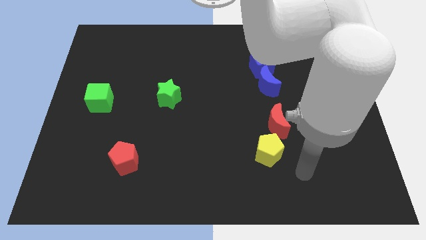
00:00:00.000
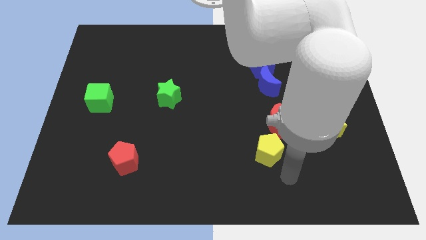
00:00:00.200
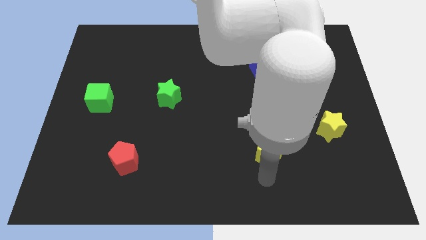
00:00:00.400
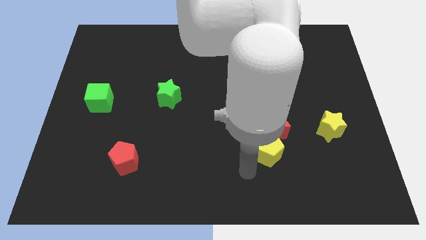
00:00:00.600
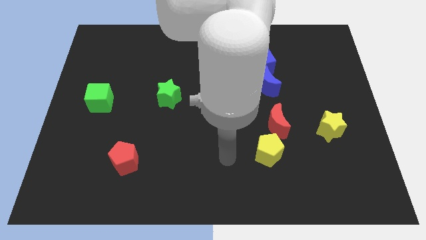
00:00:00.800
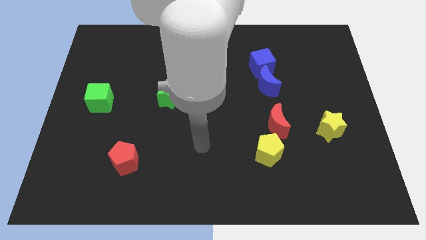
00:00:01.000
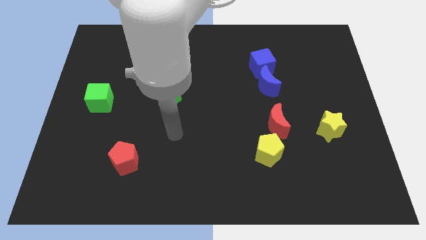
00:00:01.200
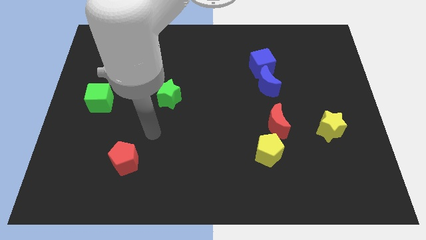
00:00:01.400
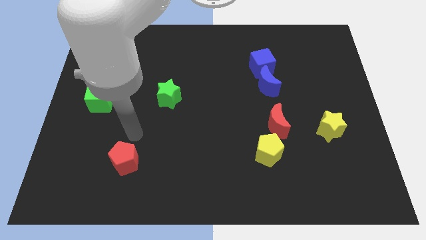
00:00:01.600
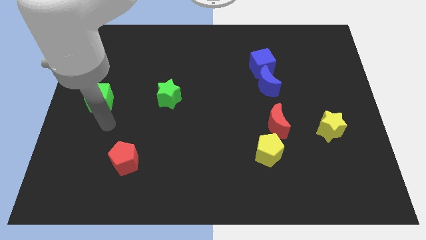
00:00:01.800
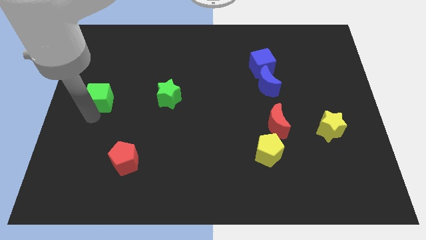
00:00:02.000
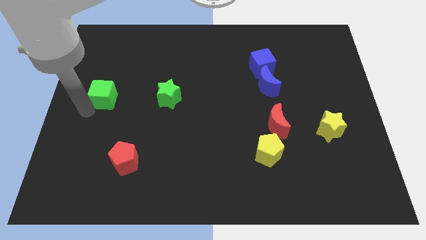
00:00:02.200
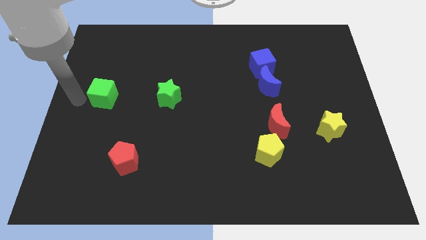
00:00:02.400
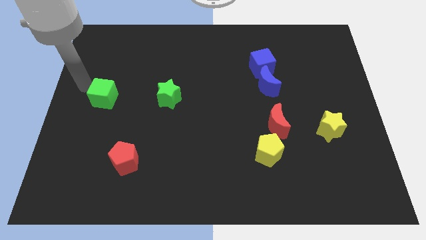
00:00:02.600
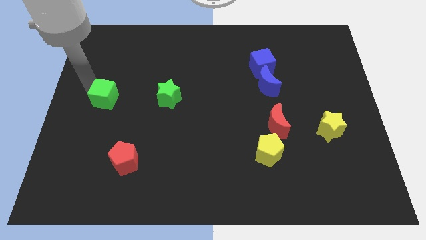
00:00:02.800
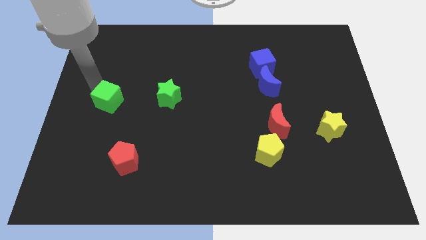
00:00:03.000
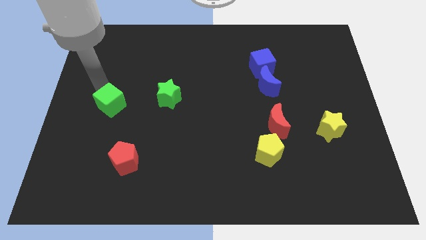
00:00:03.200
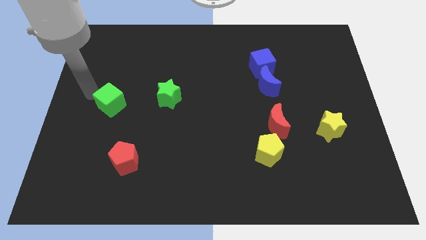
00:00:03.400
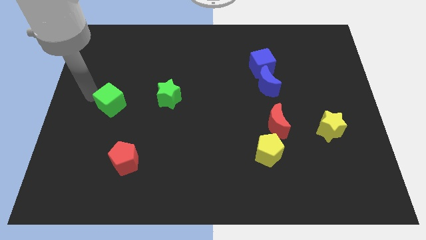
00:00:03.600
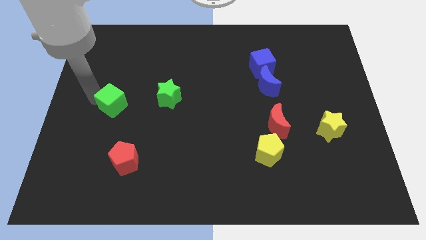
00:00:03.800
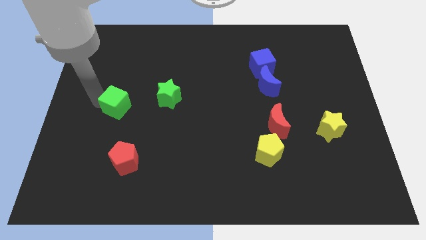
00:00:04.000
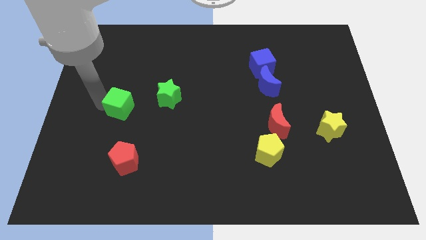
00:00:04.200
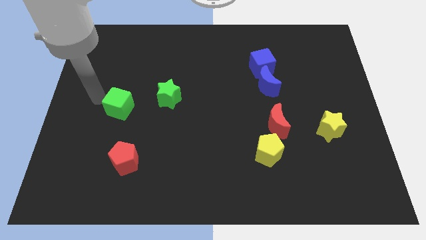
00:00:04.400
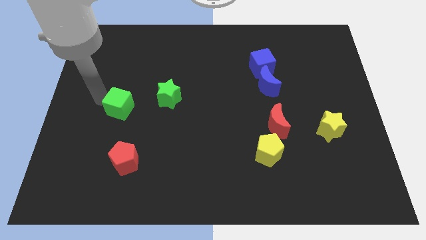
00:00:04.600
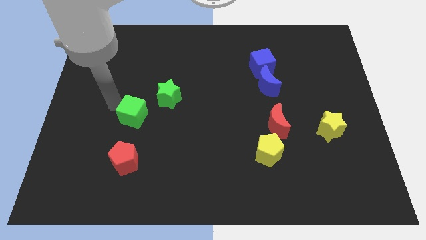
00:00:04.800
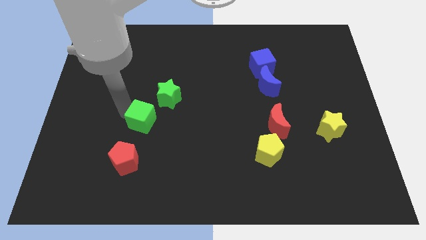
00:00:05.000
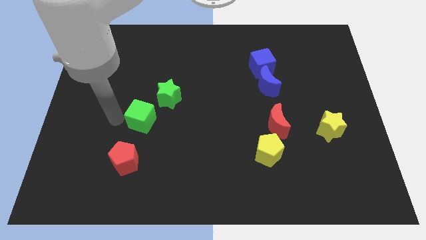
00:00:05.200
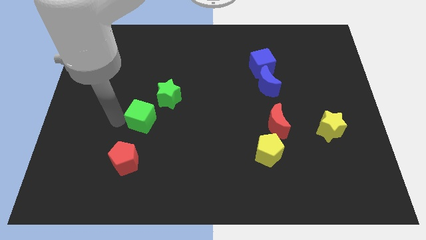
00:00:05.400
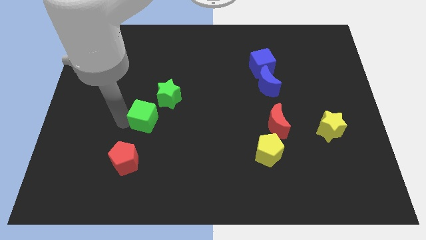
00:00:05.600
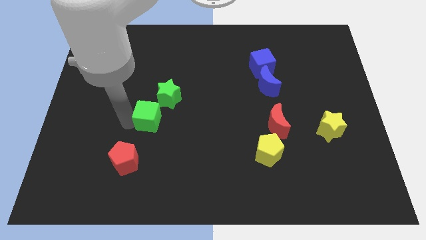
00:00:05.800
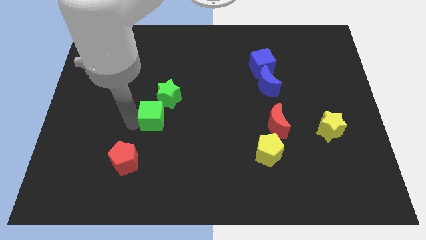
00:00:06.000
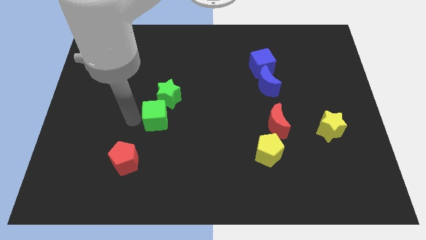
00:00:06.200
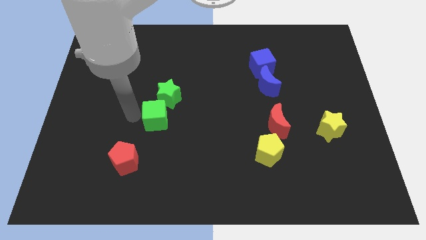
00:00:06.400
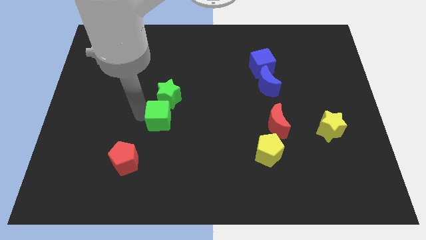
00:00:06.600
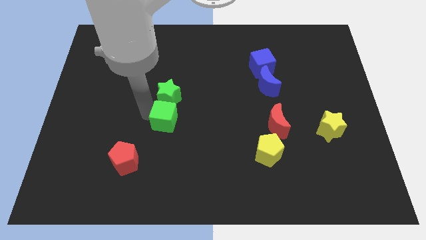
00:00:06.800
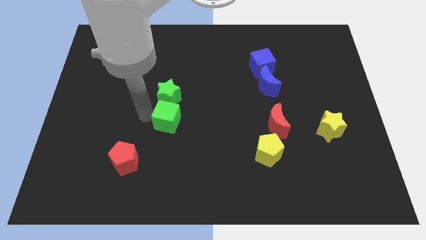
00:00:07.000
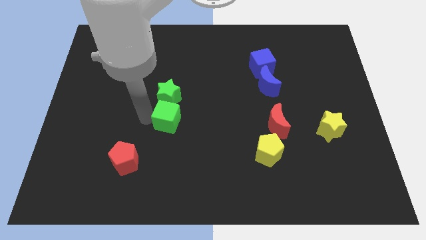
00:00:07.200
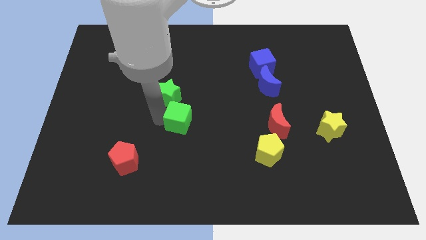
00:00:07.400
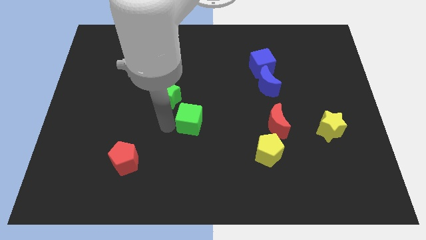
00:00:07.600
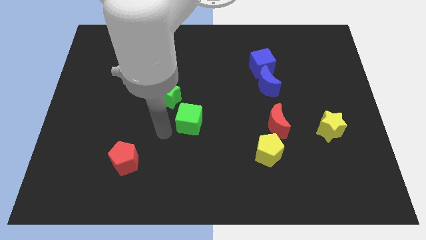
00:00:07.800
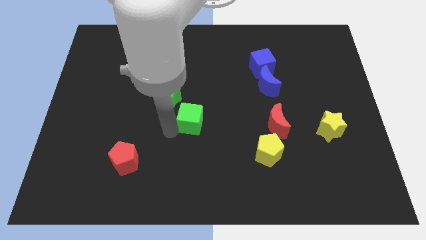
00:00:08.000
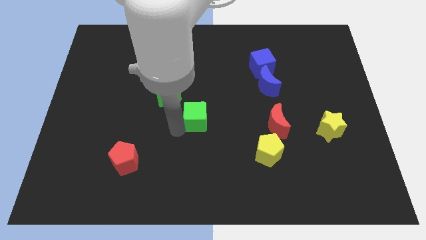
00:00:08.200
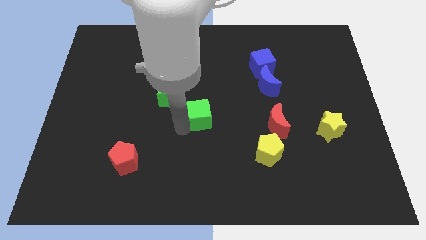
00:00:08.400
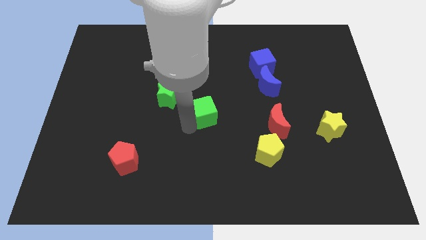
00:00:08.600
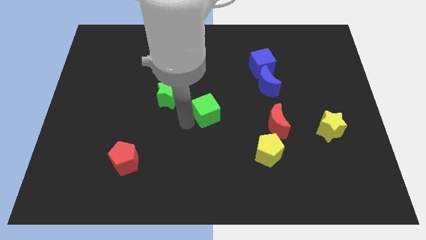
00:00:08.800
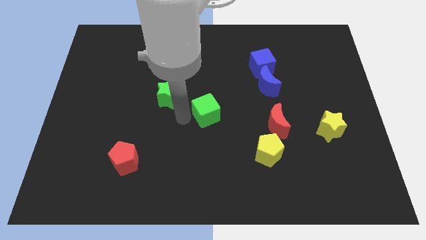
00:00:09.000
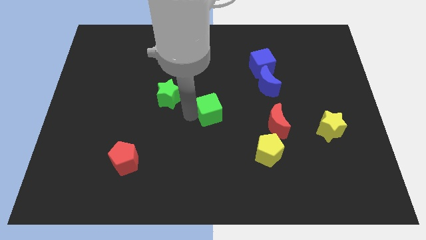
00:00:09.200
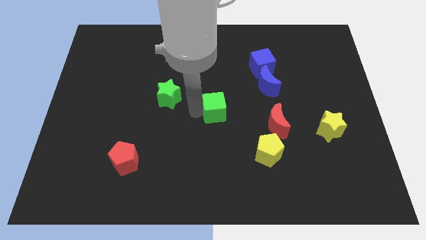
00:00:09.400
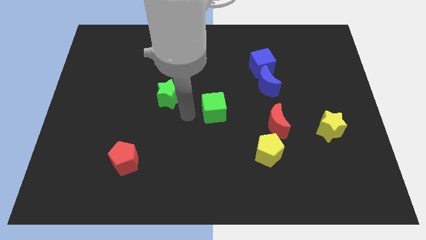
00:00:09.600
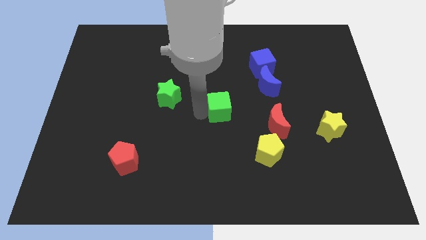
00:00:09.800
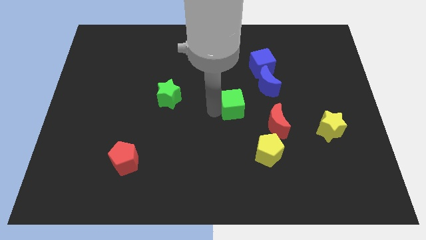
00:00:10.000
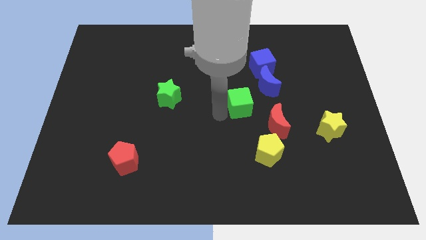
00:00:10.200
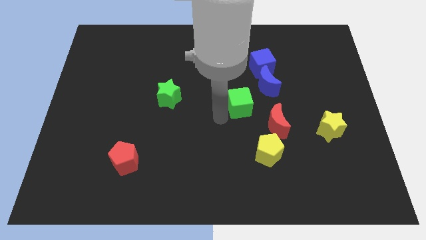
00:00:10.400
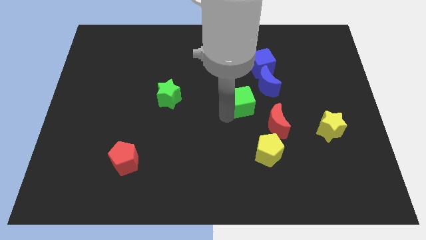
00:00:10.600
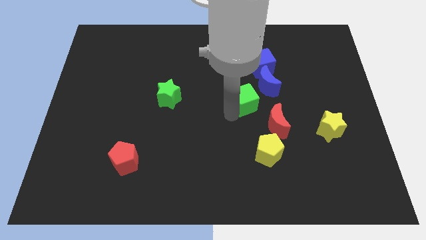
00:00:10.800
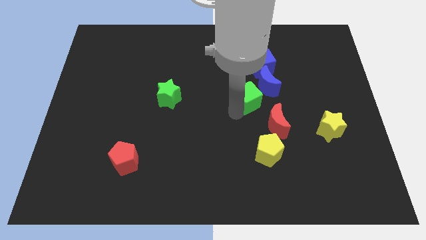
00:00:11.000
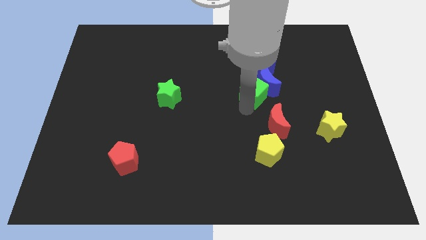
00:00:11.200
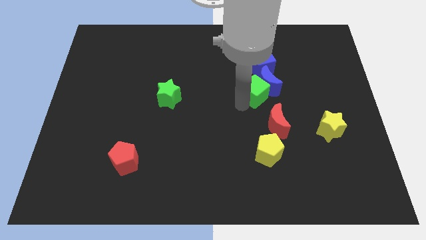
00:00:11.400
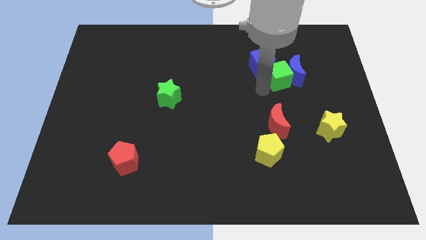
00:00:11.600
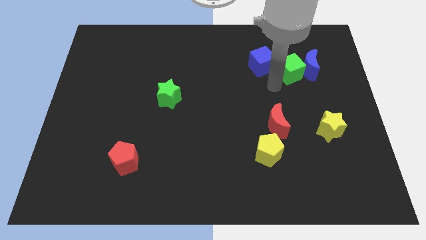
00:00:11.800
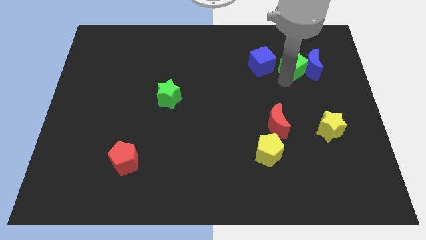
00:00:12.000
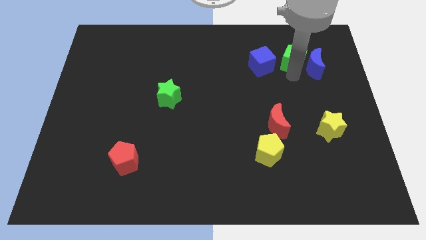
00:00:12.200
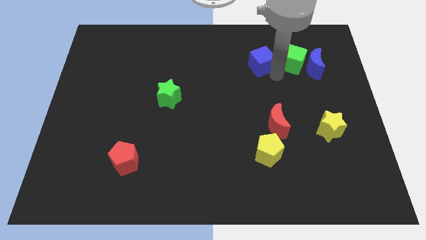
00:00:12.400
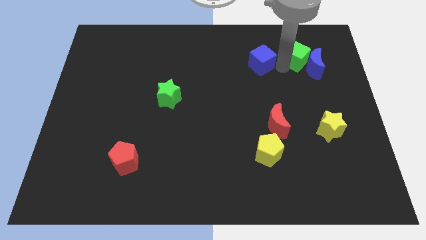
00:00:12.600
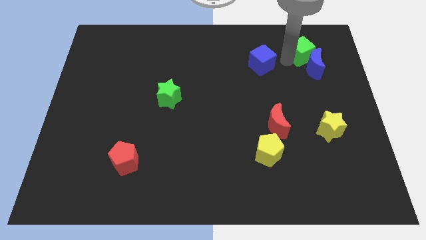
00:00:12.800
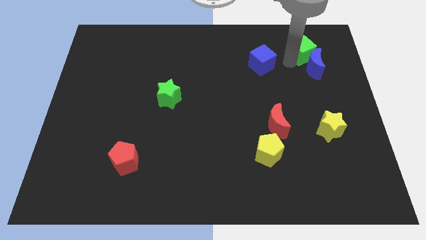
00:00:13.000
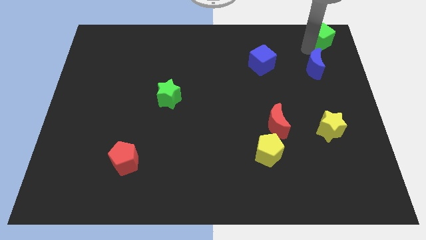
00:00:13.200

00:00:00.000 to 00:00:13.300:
slide the green cube to the top right of the board
